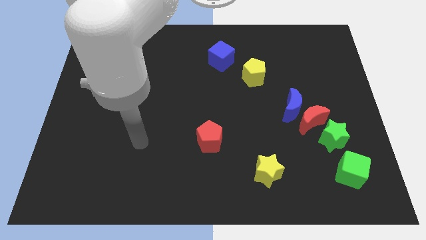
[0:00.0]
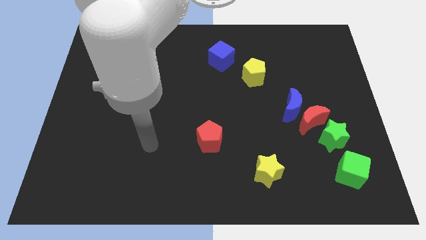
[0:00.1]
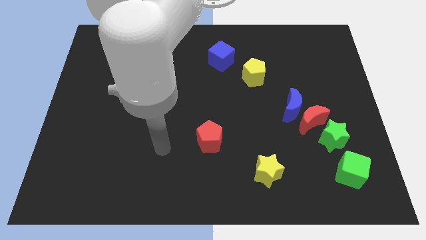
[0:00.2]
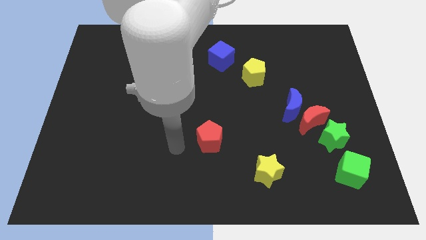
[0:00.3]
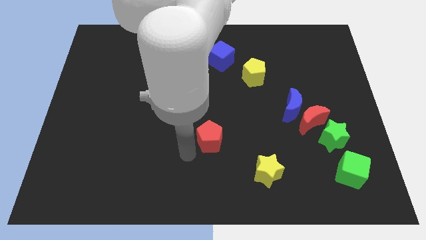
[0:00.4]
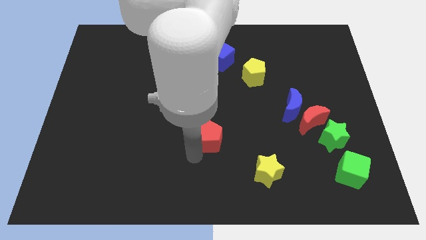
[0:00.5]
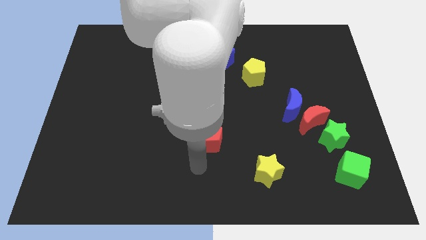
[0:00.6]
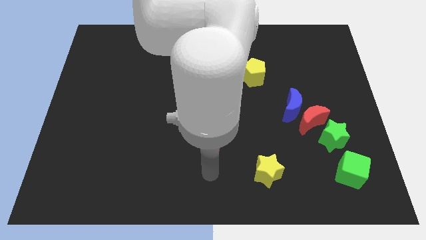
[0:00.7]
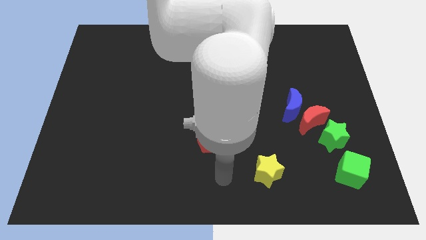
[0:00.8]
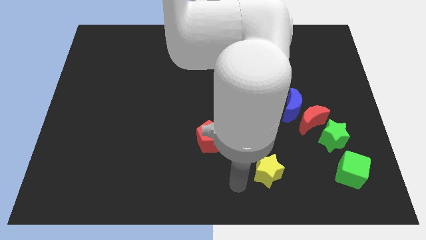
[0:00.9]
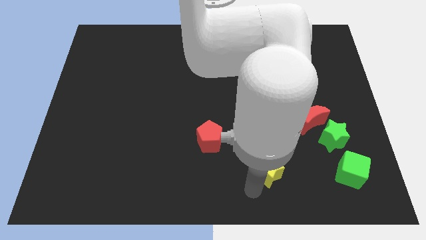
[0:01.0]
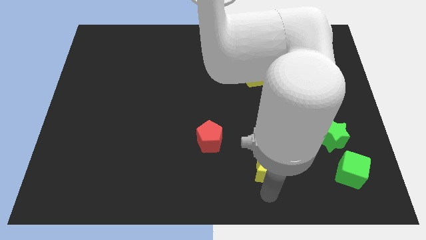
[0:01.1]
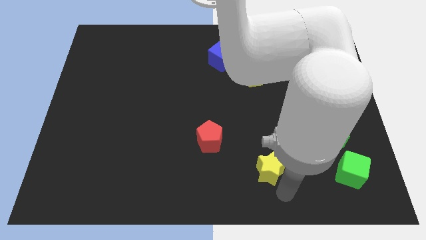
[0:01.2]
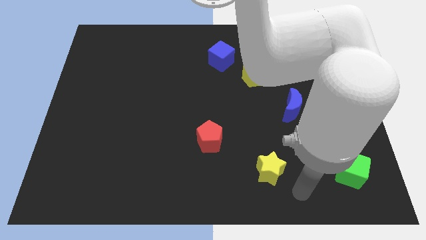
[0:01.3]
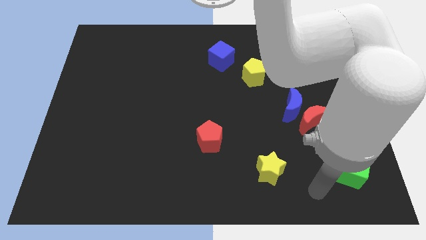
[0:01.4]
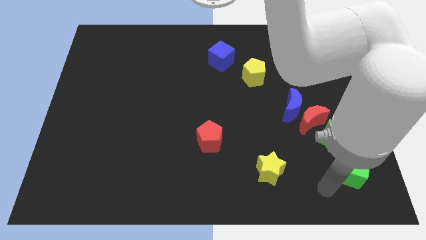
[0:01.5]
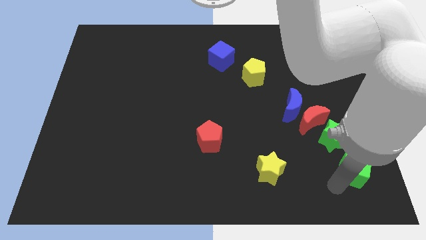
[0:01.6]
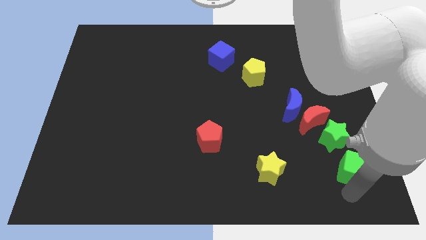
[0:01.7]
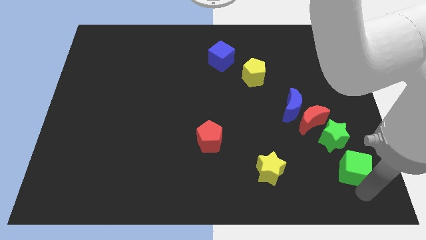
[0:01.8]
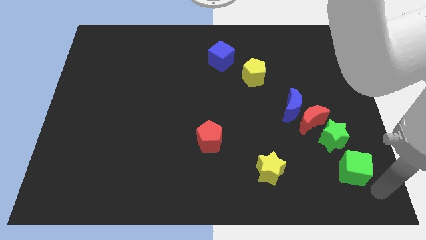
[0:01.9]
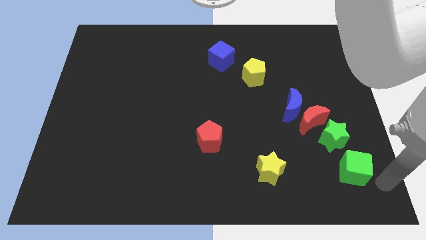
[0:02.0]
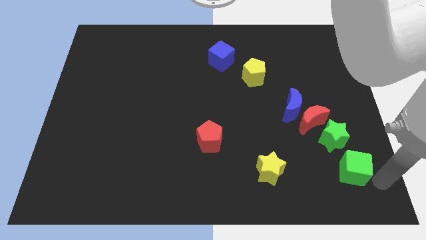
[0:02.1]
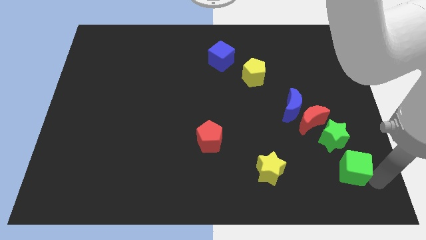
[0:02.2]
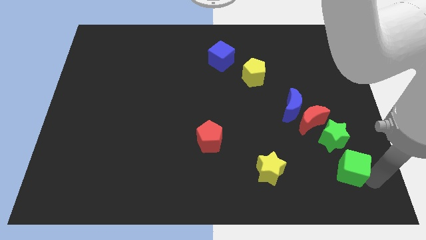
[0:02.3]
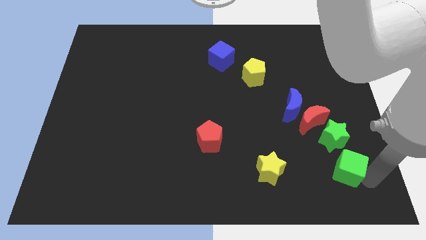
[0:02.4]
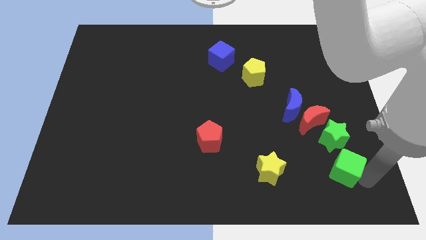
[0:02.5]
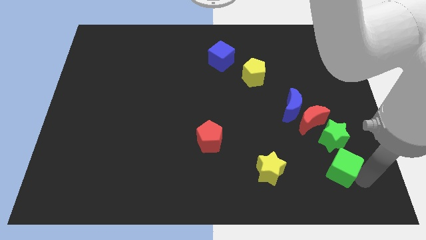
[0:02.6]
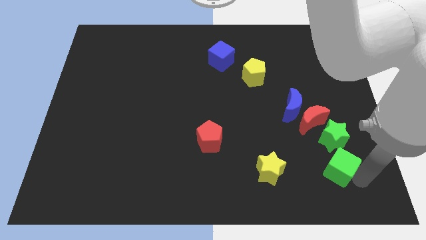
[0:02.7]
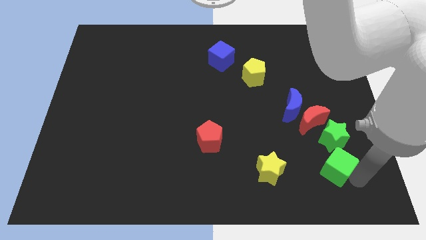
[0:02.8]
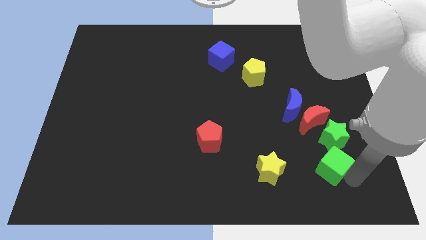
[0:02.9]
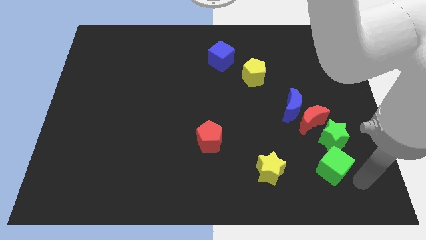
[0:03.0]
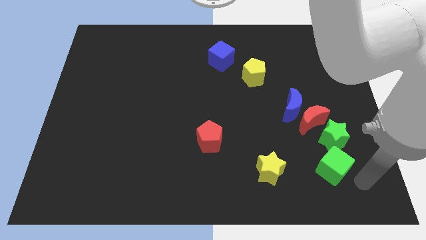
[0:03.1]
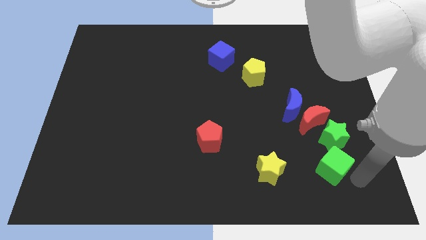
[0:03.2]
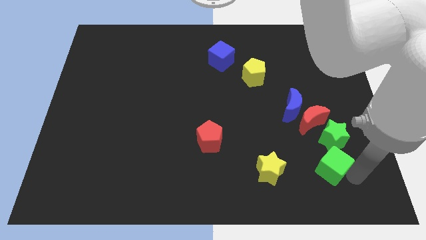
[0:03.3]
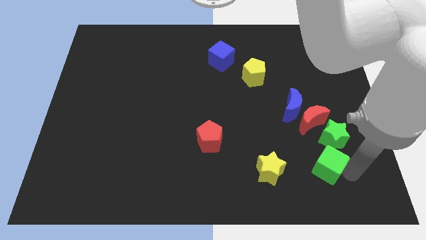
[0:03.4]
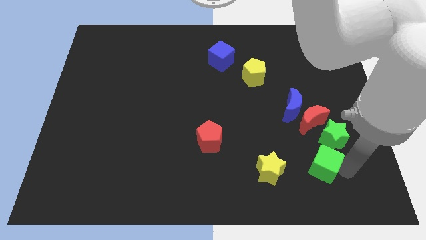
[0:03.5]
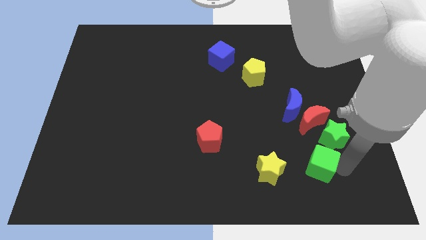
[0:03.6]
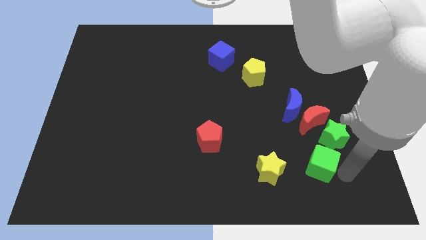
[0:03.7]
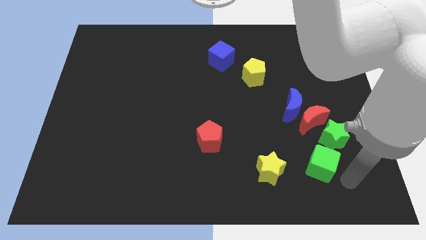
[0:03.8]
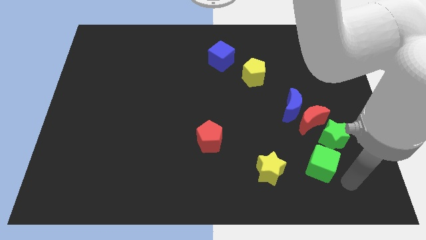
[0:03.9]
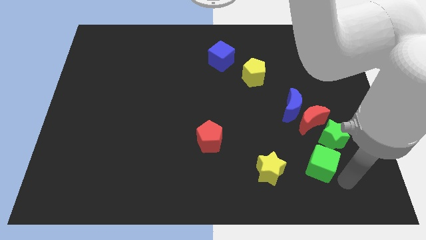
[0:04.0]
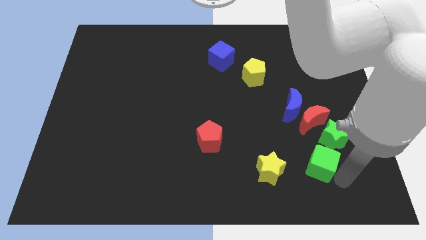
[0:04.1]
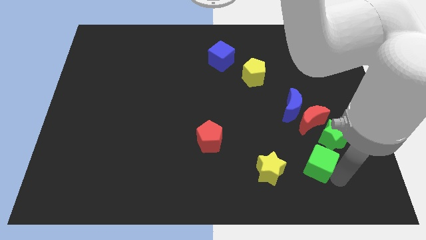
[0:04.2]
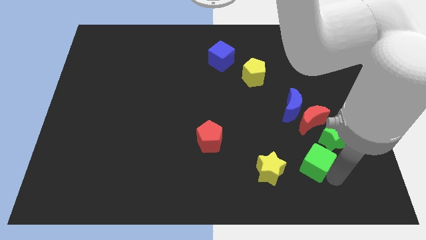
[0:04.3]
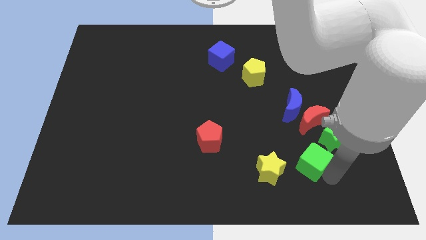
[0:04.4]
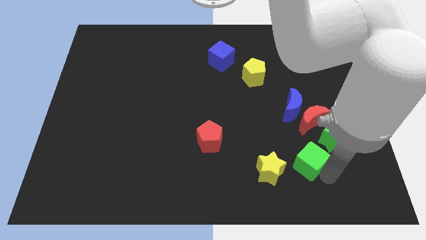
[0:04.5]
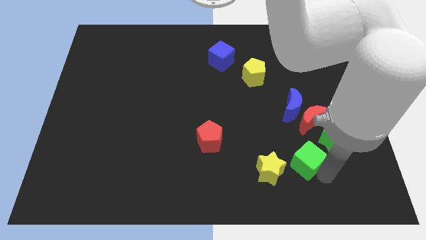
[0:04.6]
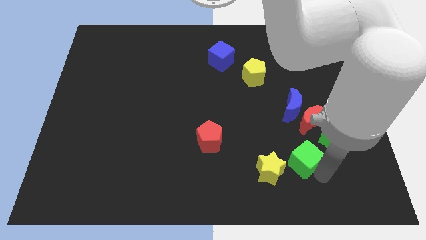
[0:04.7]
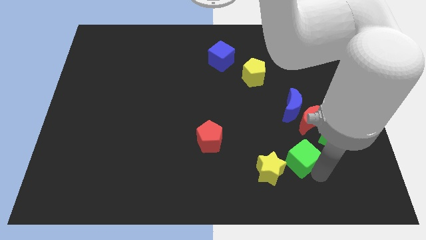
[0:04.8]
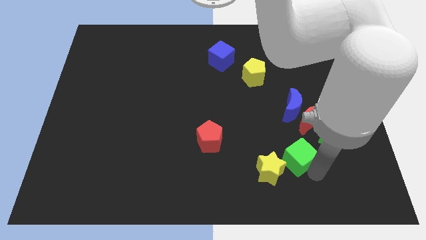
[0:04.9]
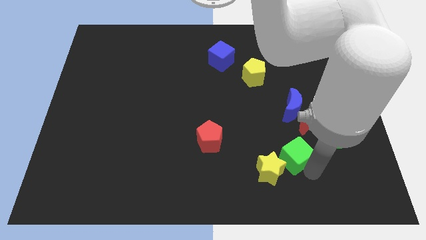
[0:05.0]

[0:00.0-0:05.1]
put the green cube just left of the green star

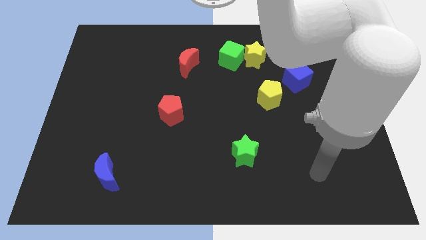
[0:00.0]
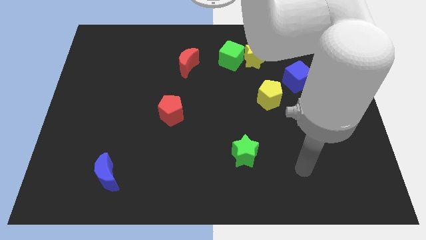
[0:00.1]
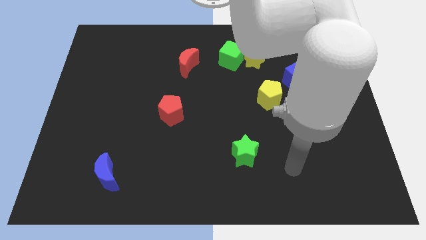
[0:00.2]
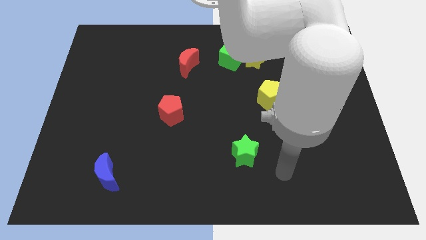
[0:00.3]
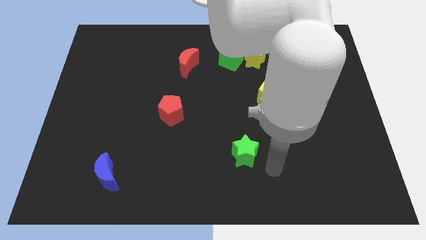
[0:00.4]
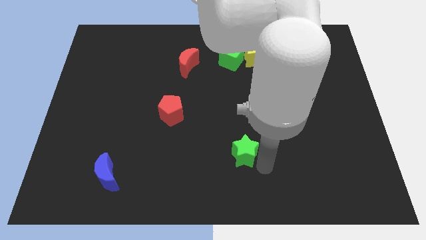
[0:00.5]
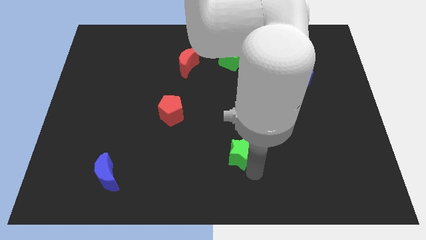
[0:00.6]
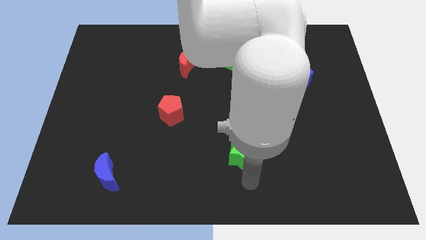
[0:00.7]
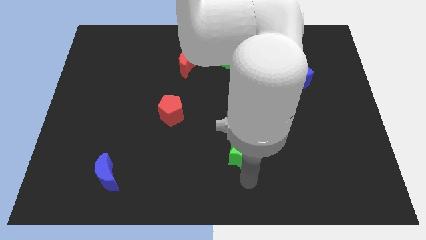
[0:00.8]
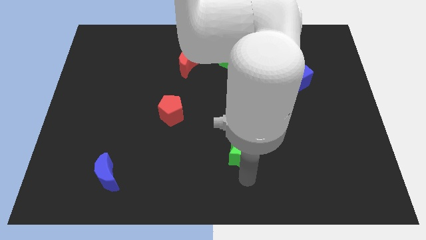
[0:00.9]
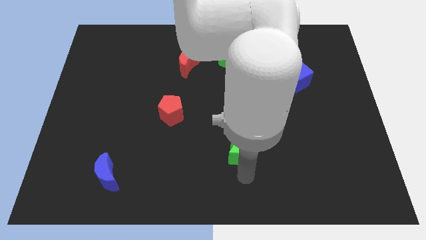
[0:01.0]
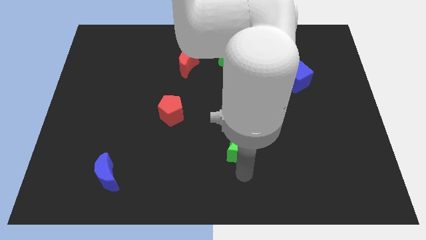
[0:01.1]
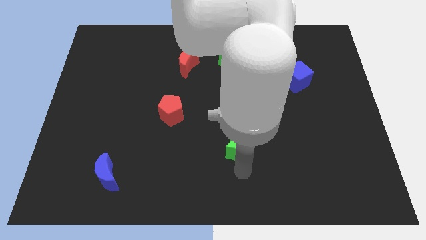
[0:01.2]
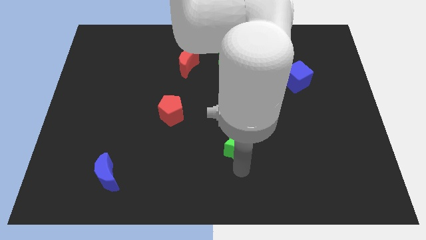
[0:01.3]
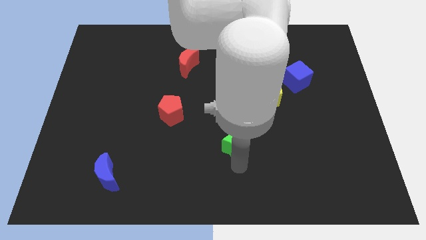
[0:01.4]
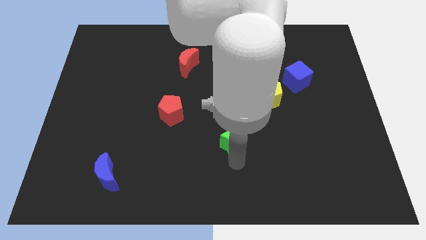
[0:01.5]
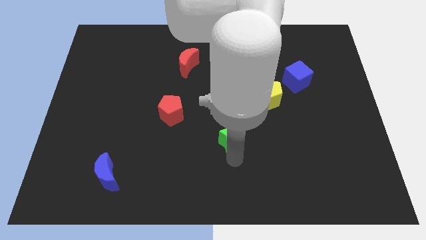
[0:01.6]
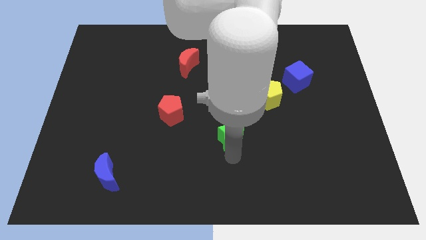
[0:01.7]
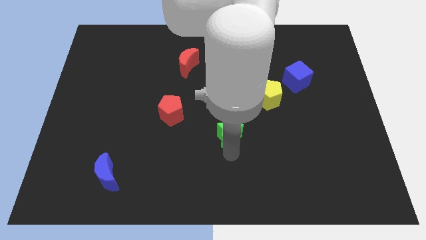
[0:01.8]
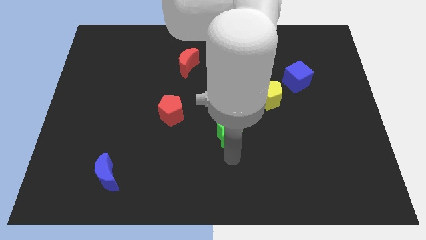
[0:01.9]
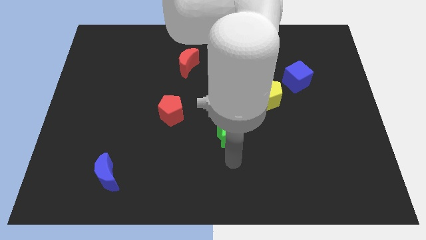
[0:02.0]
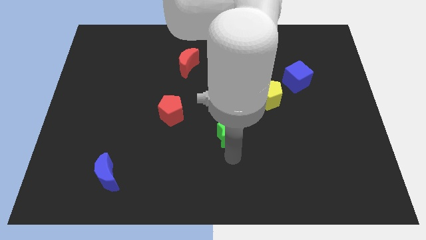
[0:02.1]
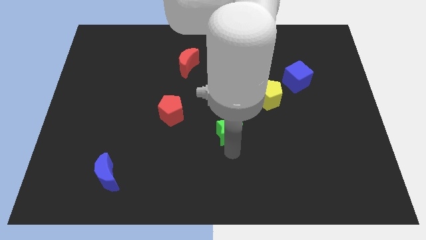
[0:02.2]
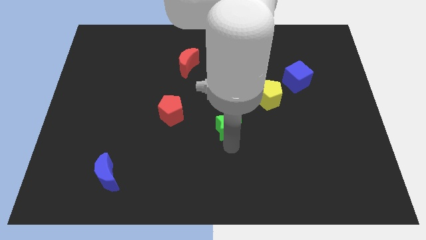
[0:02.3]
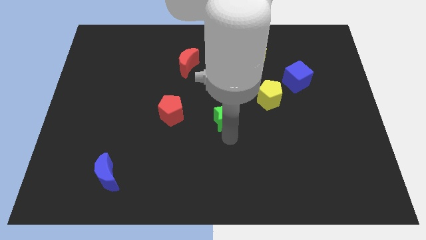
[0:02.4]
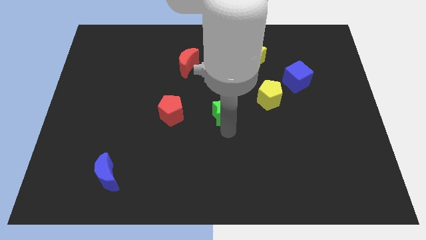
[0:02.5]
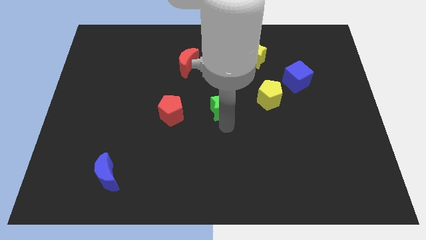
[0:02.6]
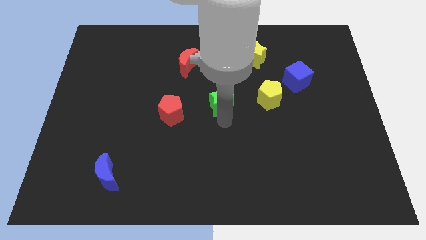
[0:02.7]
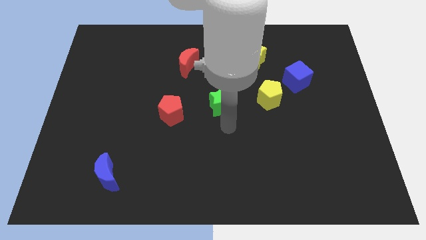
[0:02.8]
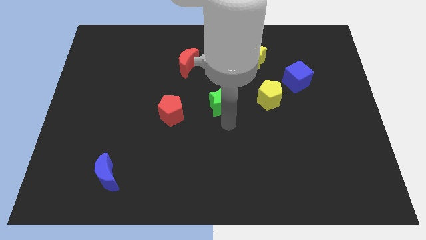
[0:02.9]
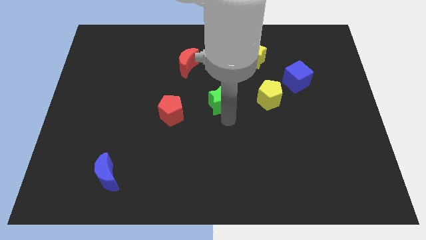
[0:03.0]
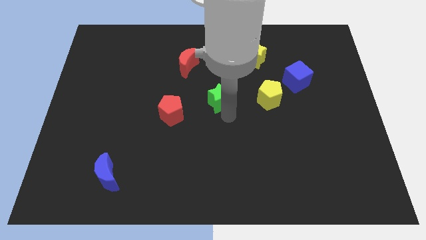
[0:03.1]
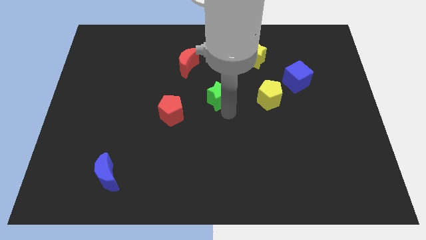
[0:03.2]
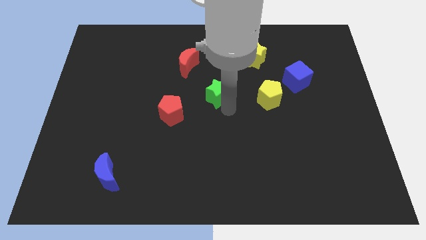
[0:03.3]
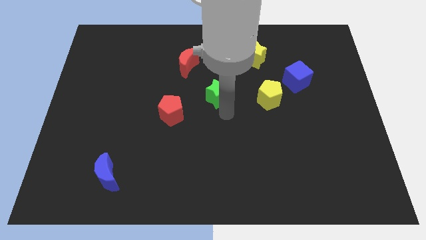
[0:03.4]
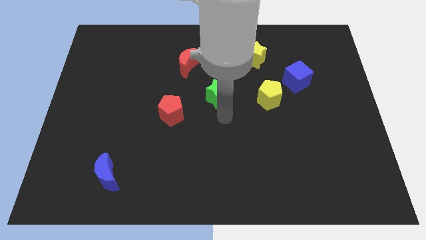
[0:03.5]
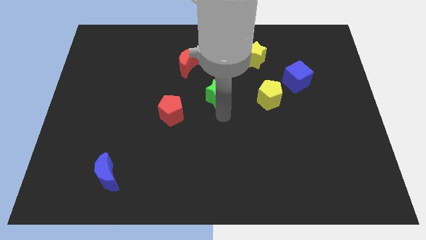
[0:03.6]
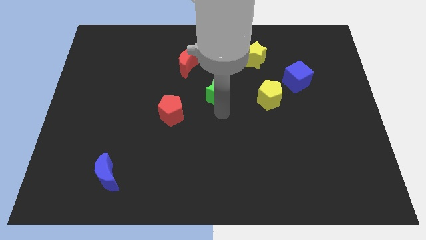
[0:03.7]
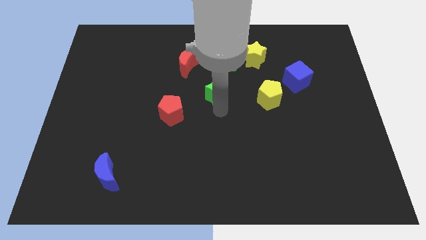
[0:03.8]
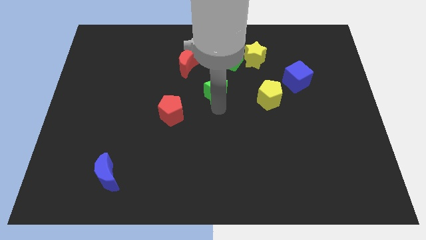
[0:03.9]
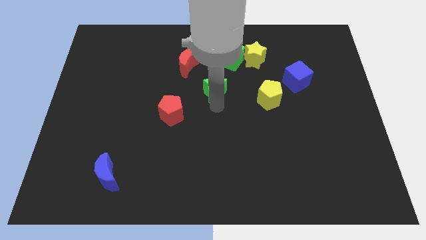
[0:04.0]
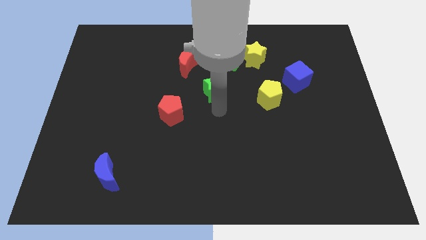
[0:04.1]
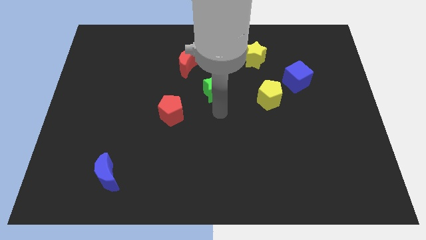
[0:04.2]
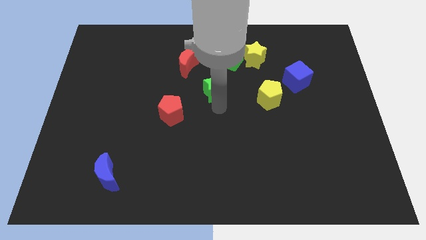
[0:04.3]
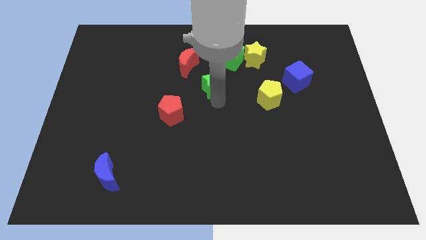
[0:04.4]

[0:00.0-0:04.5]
move the green star to the bottom left side of the green cube
